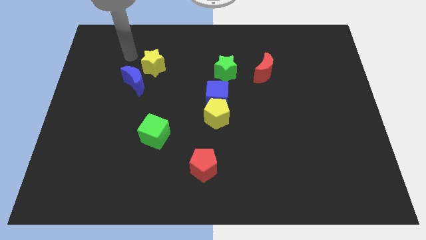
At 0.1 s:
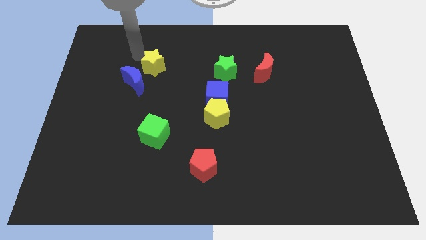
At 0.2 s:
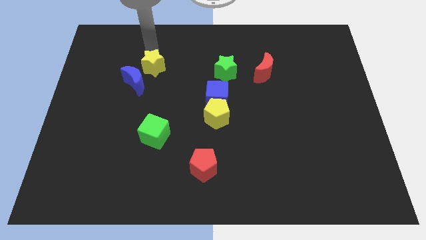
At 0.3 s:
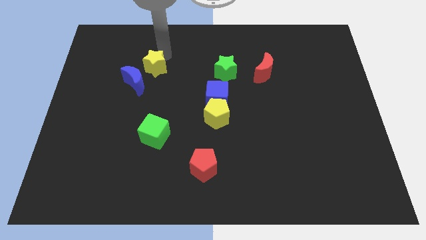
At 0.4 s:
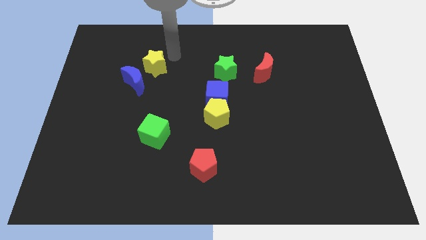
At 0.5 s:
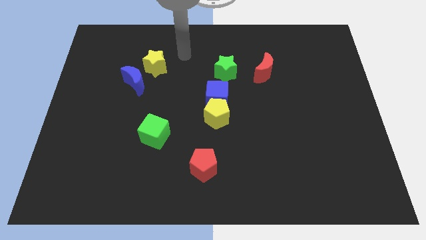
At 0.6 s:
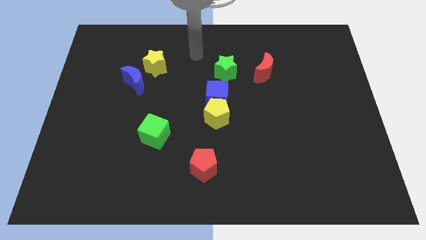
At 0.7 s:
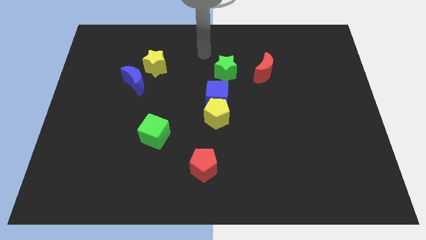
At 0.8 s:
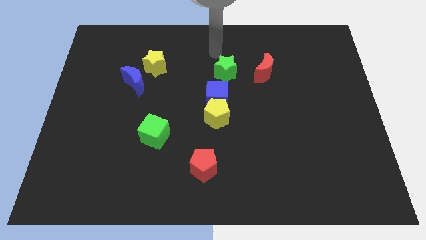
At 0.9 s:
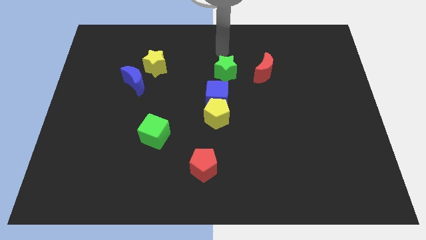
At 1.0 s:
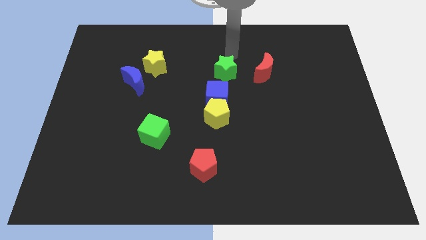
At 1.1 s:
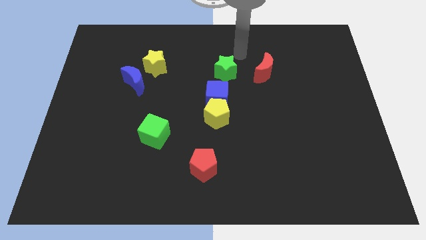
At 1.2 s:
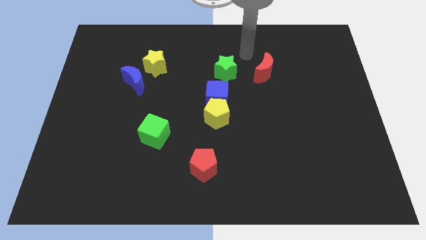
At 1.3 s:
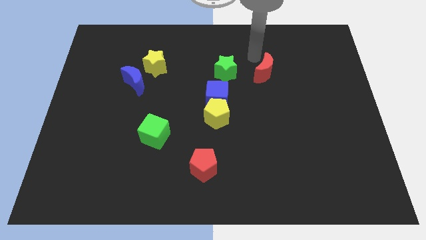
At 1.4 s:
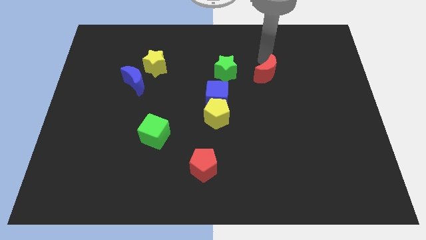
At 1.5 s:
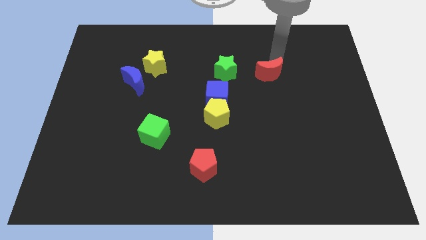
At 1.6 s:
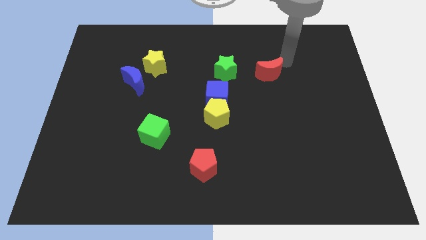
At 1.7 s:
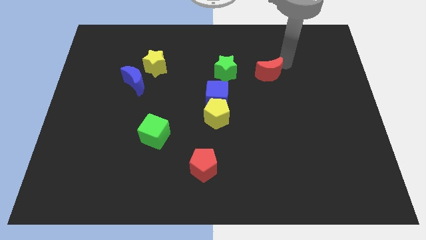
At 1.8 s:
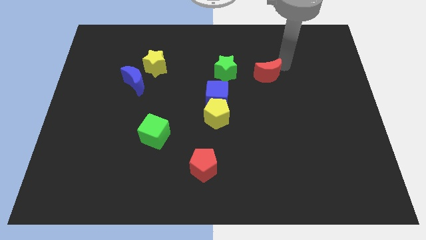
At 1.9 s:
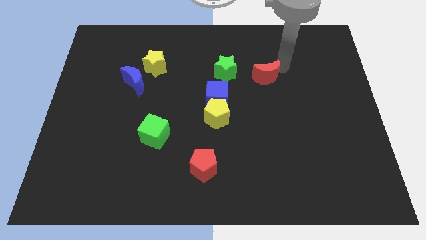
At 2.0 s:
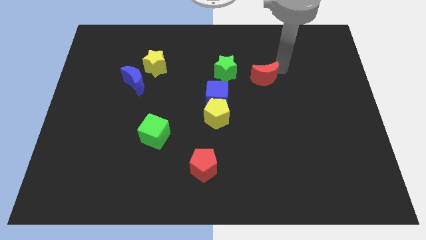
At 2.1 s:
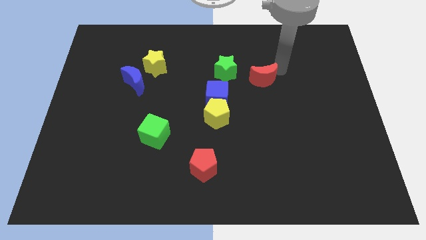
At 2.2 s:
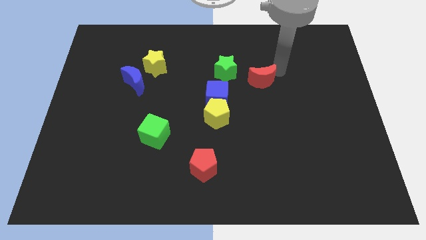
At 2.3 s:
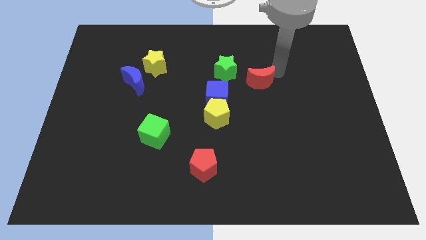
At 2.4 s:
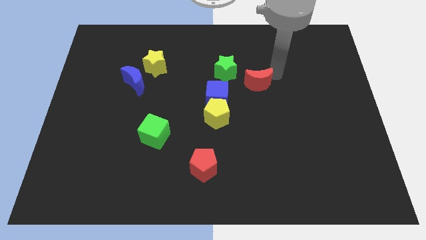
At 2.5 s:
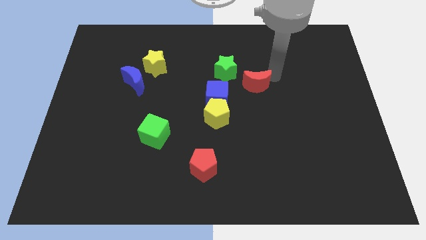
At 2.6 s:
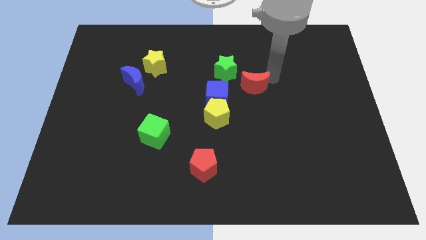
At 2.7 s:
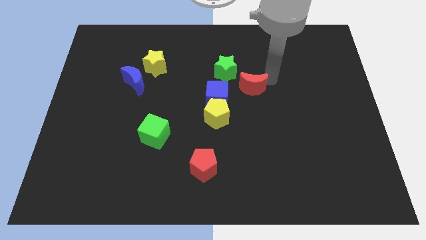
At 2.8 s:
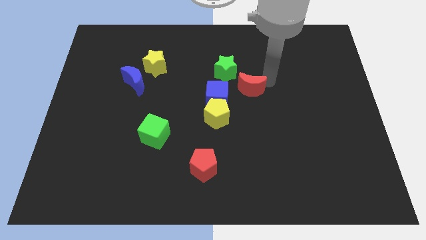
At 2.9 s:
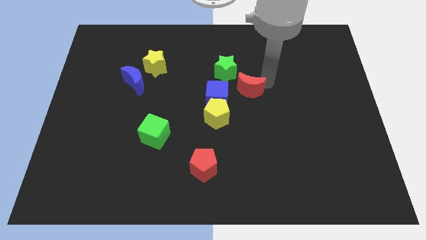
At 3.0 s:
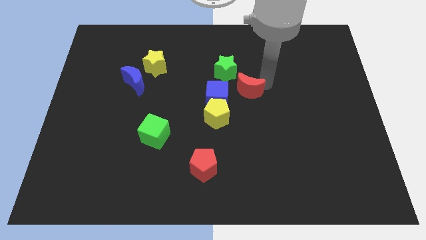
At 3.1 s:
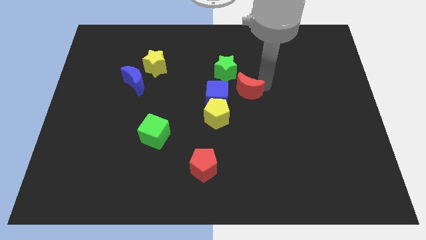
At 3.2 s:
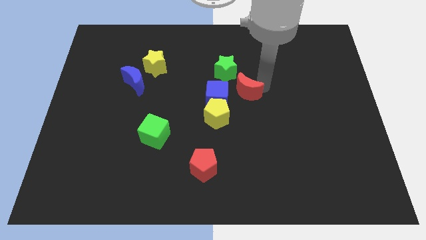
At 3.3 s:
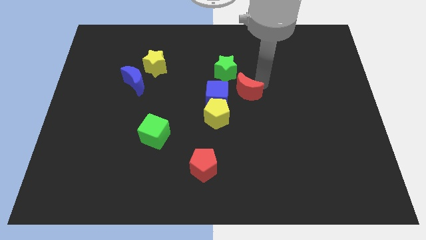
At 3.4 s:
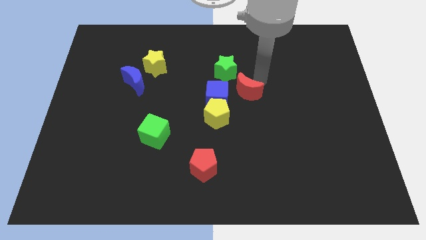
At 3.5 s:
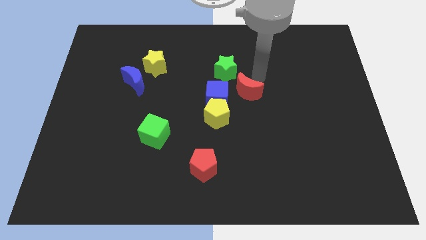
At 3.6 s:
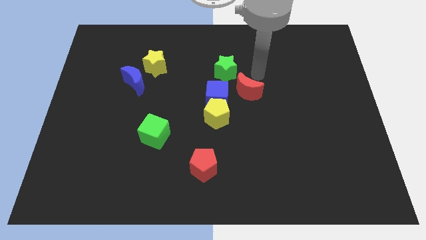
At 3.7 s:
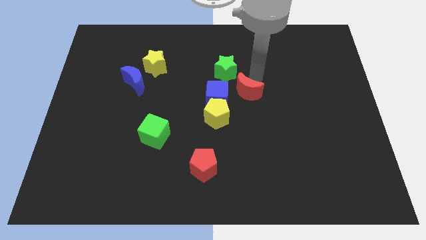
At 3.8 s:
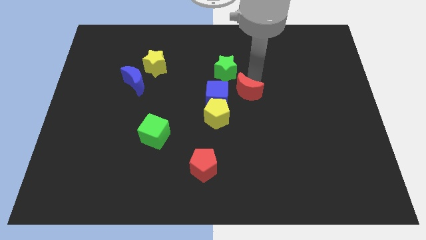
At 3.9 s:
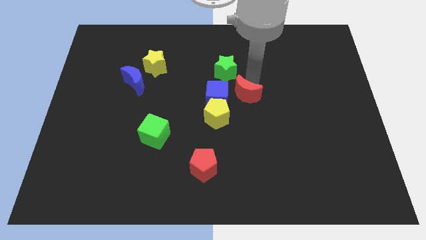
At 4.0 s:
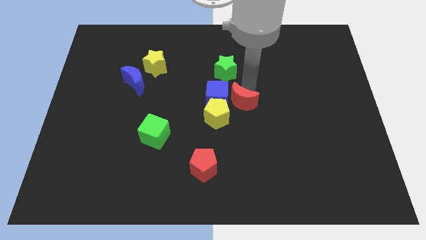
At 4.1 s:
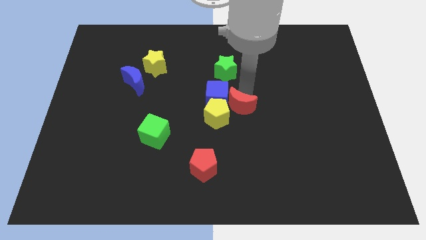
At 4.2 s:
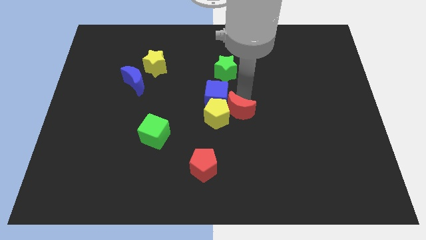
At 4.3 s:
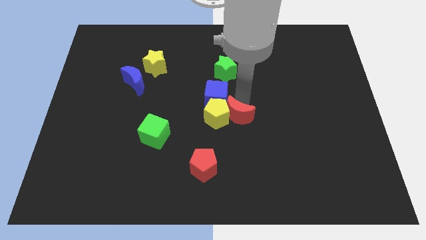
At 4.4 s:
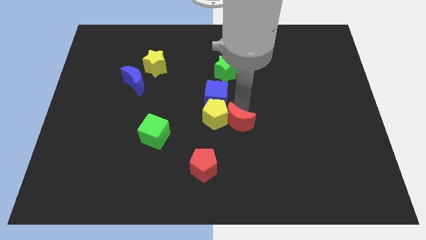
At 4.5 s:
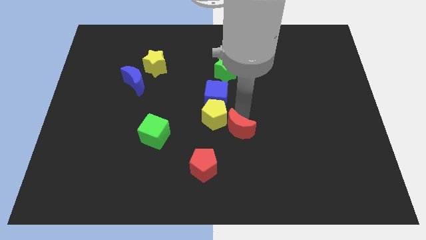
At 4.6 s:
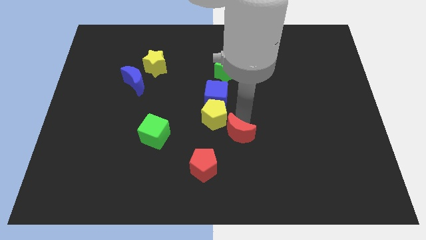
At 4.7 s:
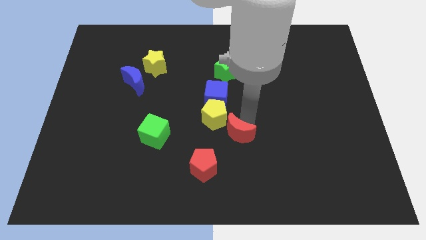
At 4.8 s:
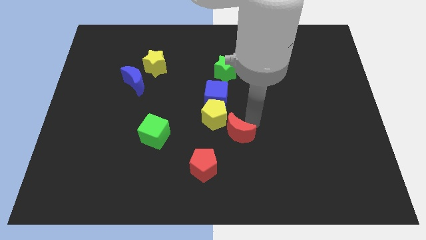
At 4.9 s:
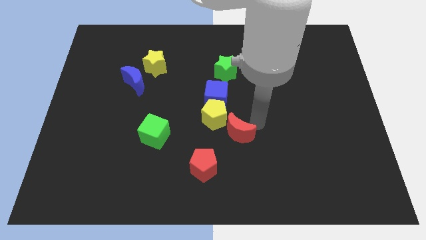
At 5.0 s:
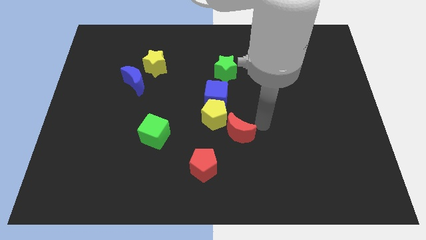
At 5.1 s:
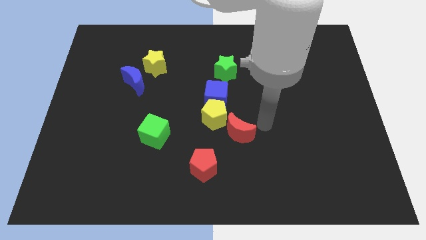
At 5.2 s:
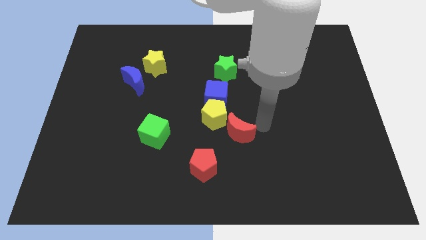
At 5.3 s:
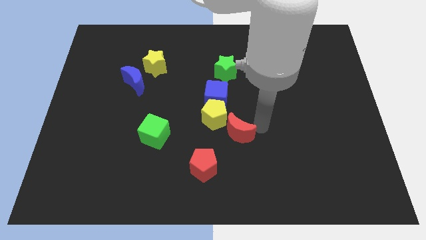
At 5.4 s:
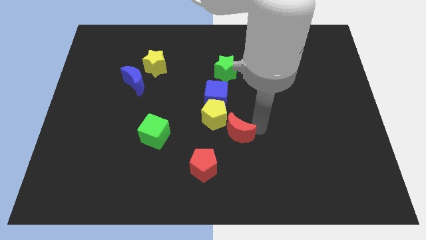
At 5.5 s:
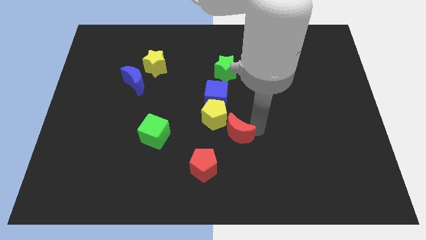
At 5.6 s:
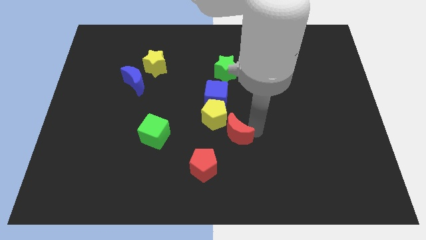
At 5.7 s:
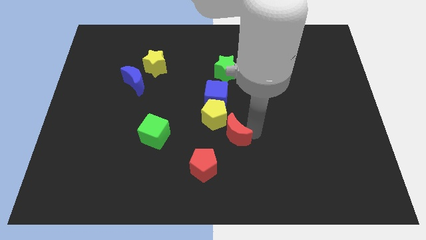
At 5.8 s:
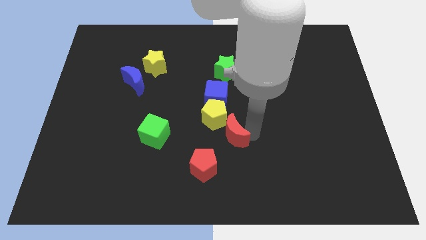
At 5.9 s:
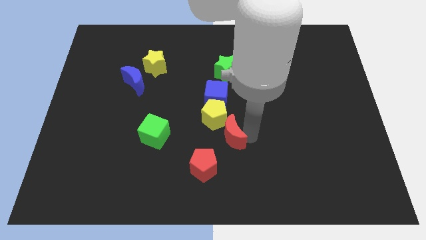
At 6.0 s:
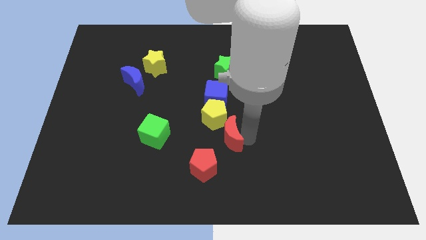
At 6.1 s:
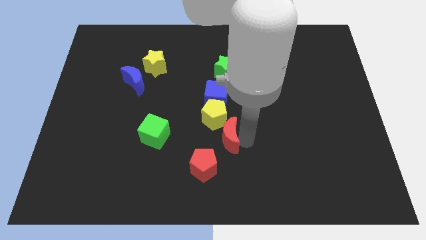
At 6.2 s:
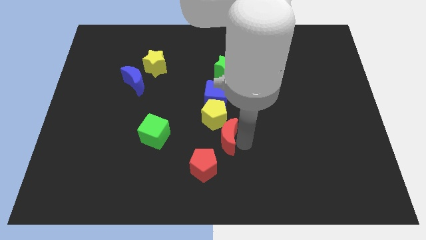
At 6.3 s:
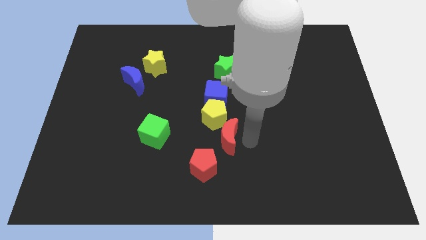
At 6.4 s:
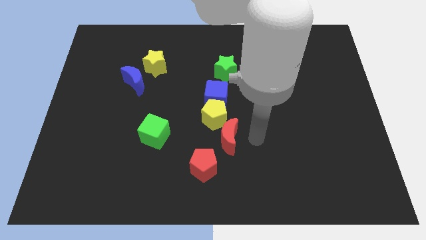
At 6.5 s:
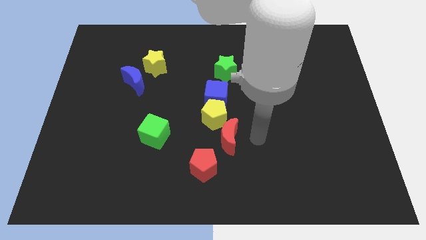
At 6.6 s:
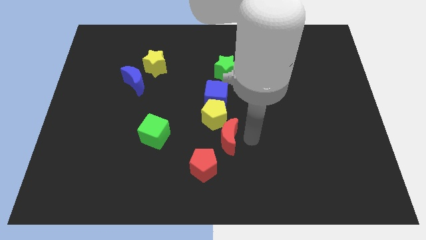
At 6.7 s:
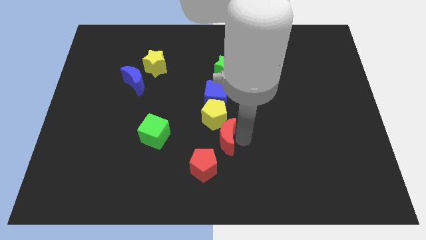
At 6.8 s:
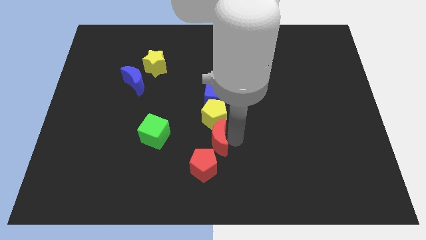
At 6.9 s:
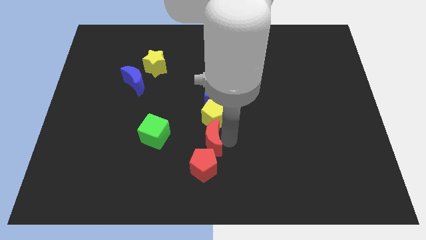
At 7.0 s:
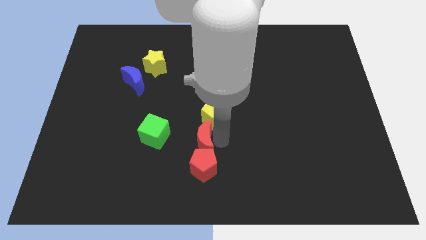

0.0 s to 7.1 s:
move the red moon to the top left of the red pentagon
